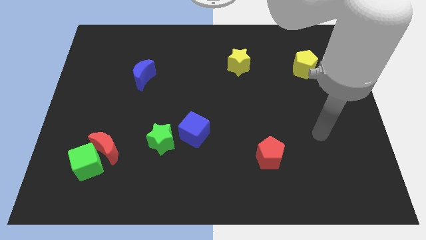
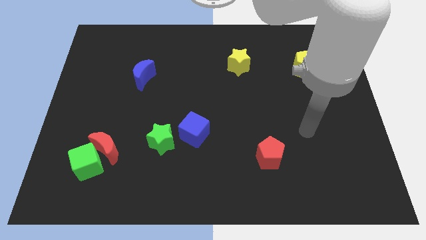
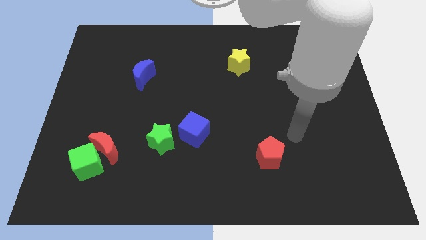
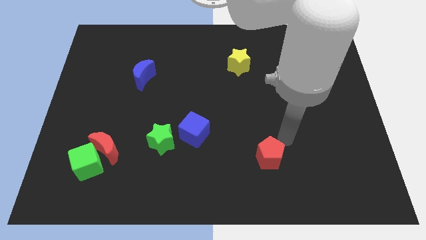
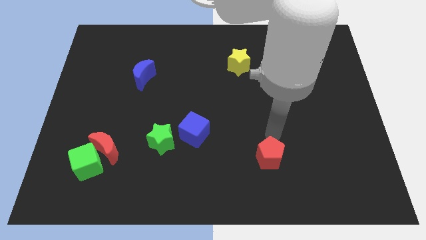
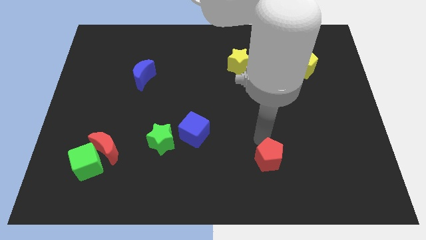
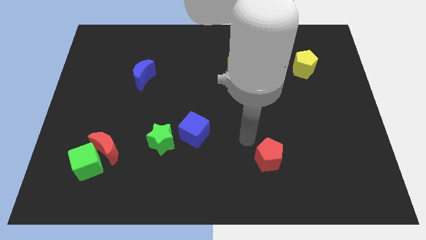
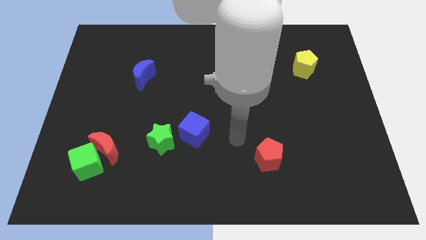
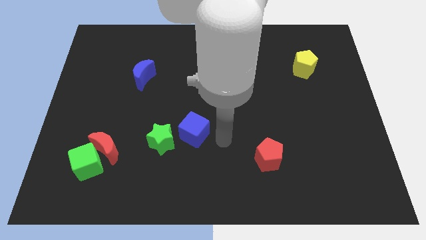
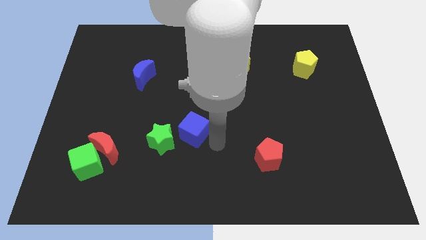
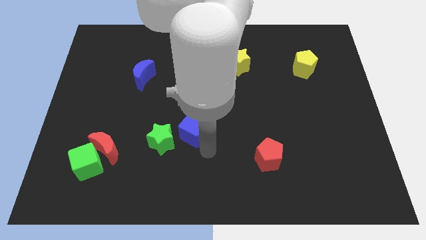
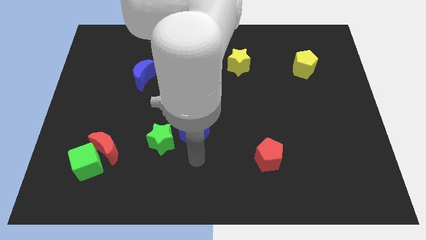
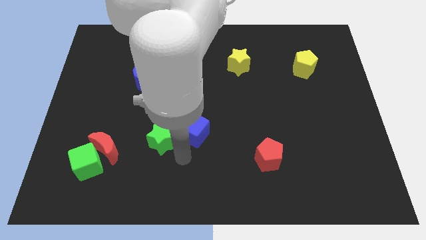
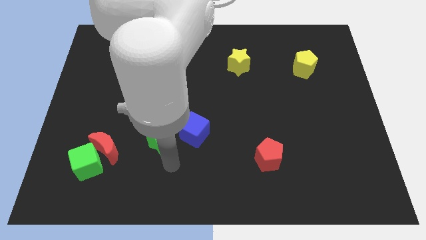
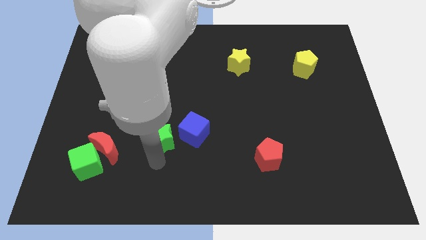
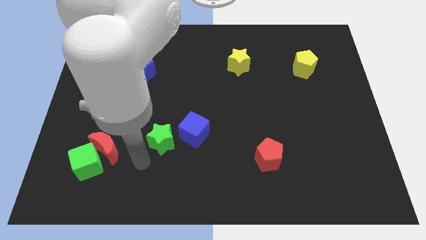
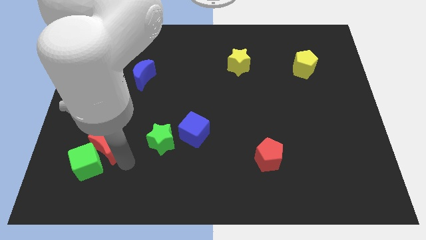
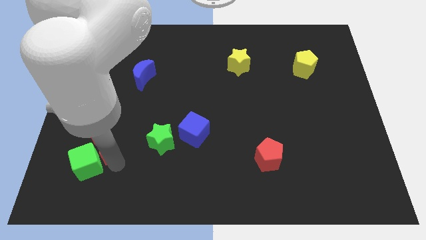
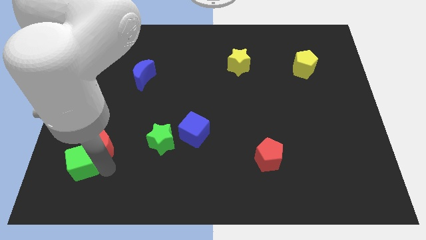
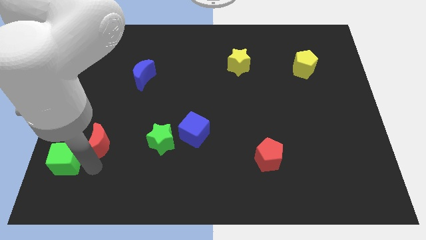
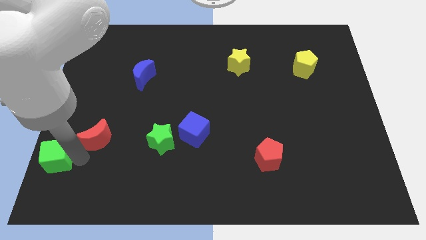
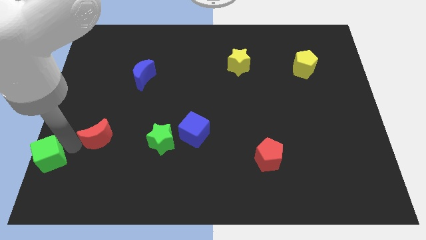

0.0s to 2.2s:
move the red moon away from the green cube

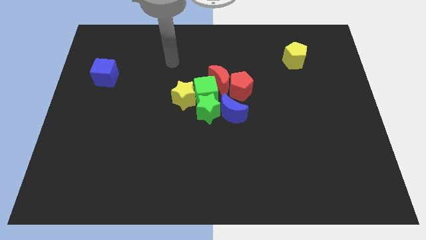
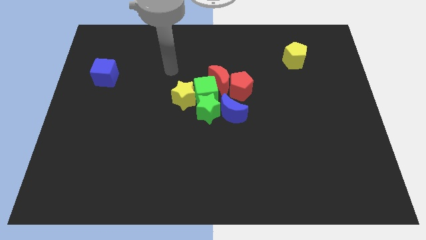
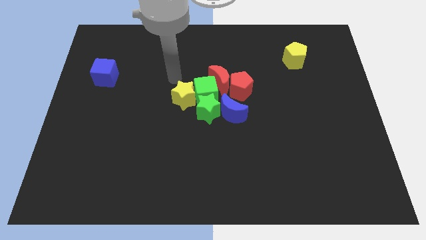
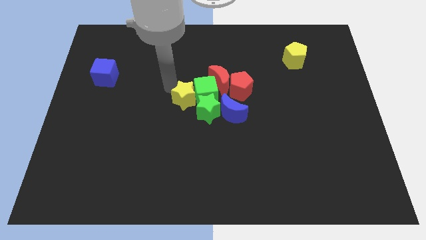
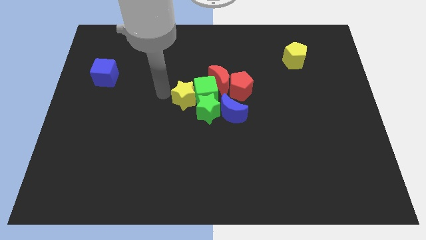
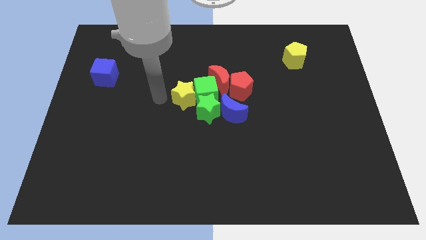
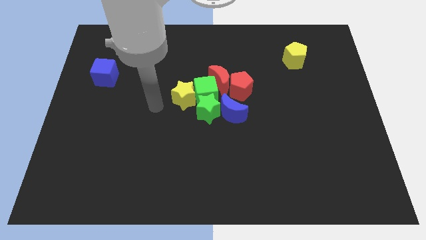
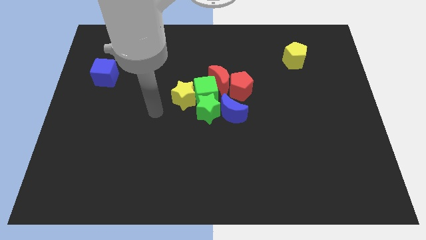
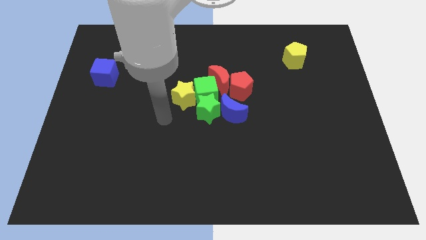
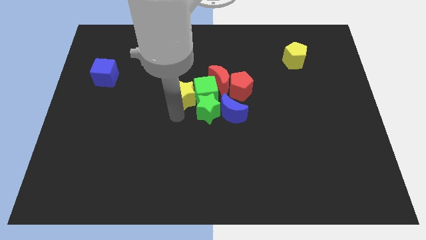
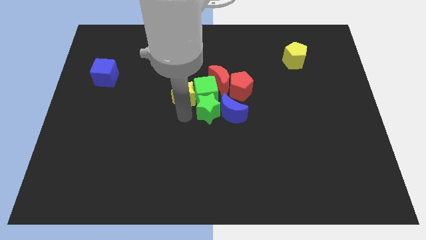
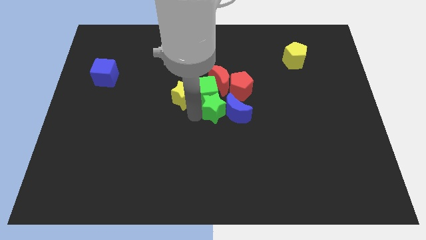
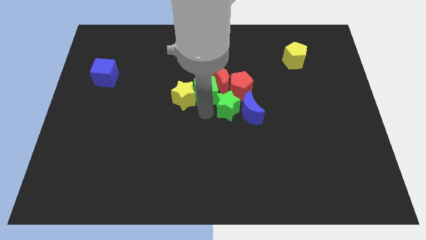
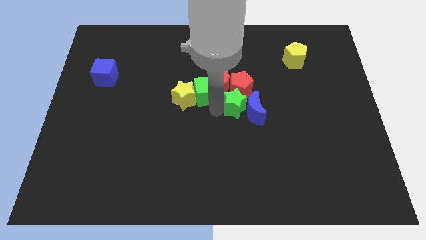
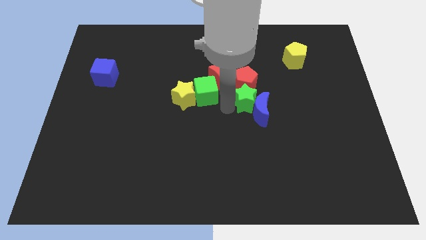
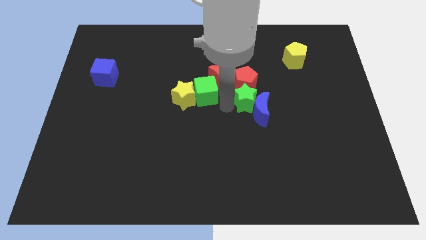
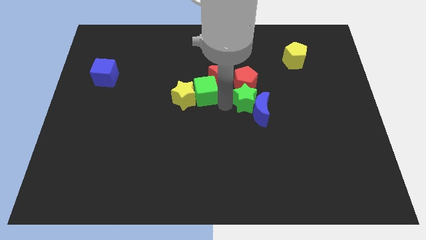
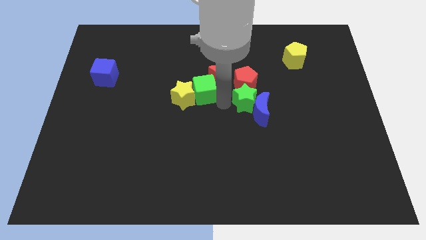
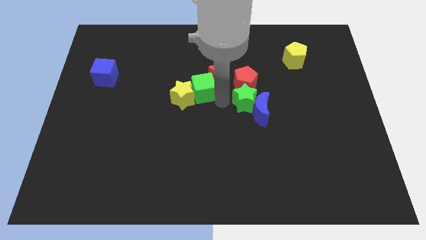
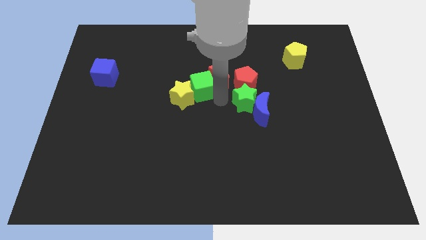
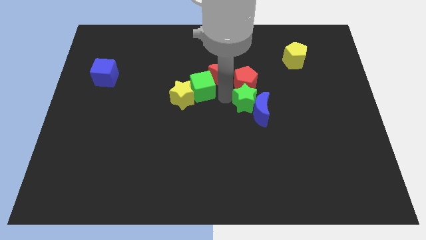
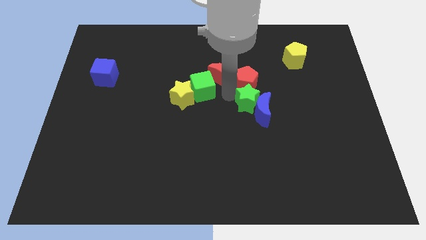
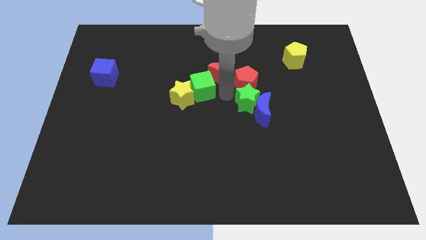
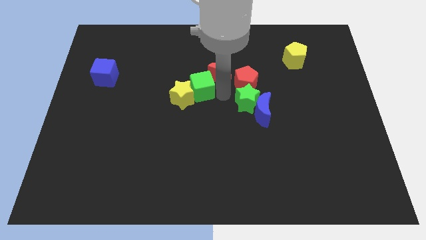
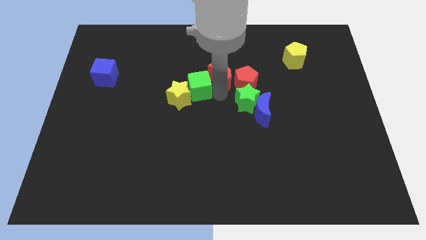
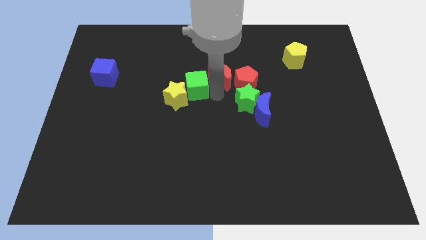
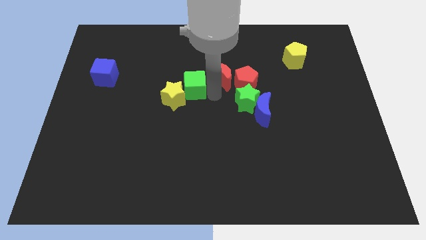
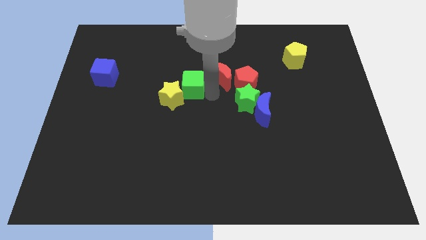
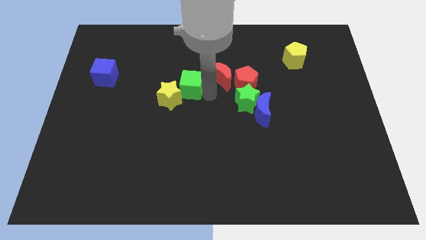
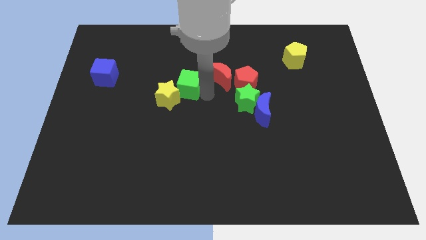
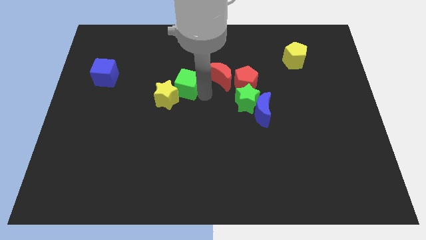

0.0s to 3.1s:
pull the green cube apart from the group

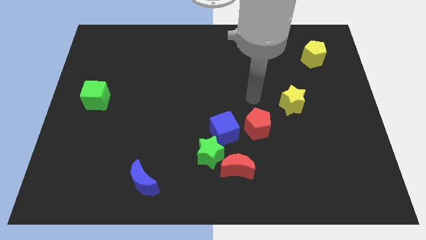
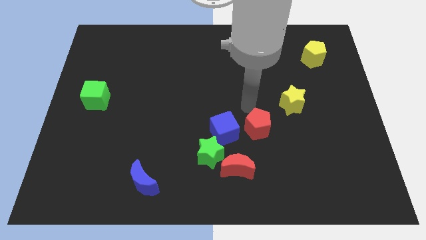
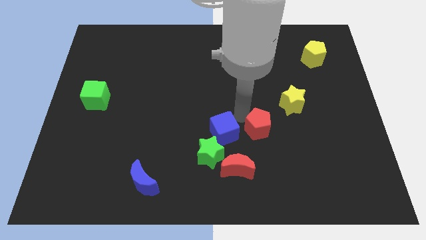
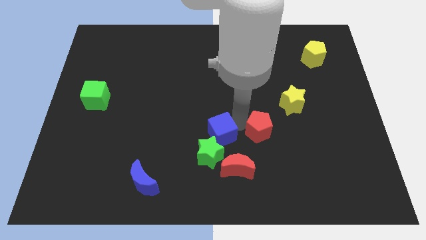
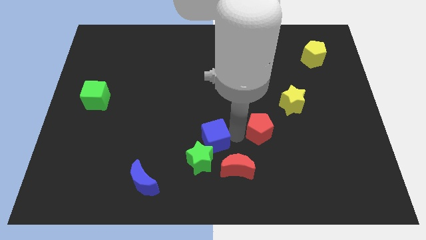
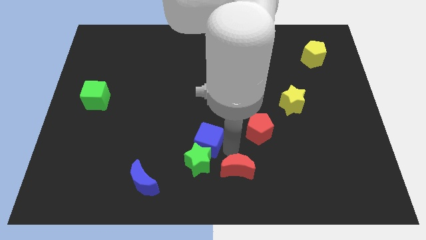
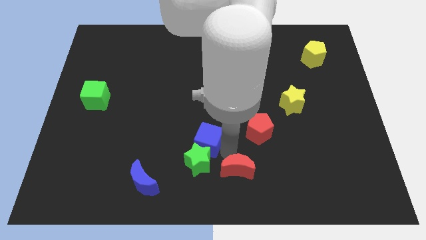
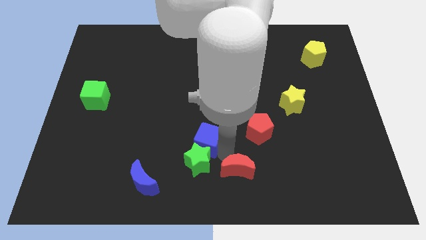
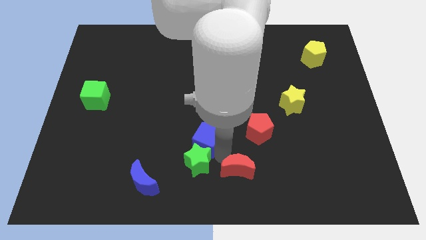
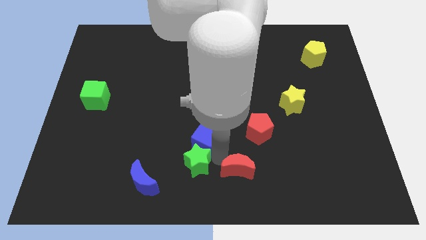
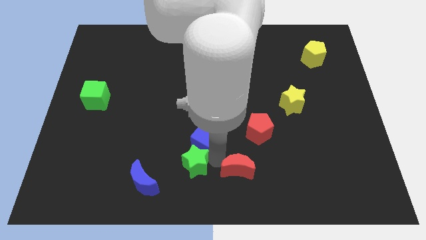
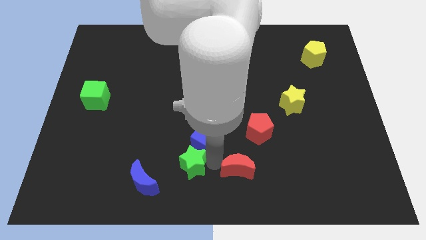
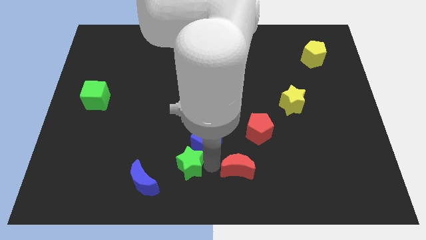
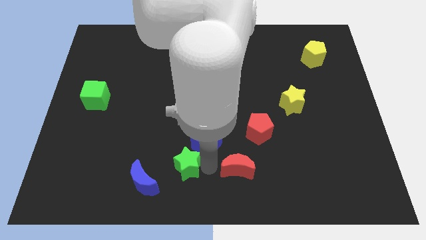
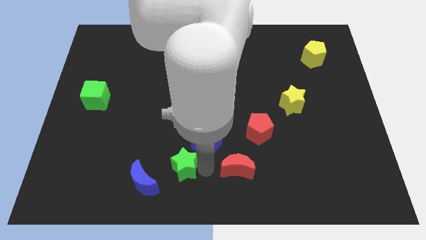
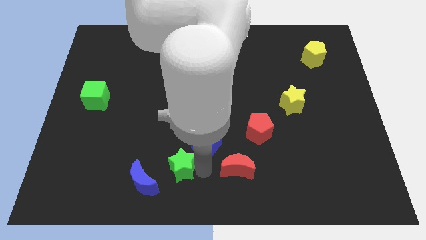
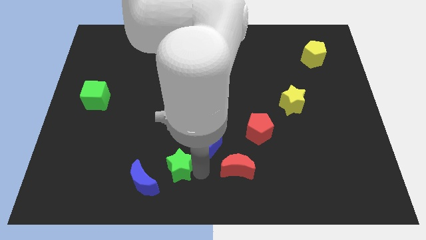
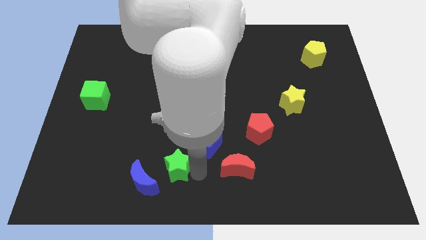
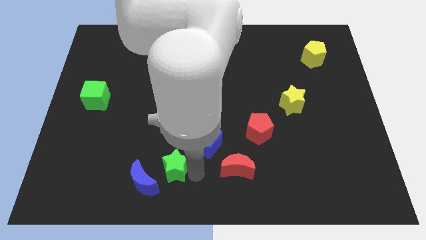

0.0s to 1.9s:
move the green star away from the red moon and blue cube

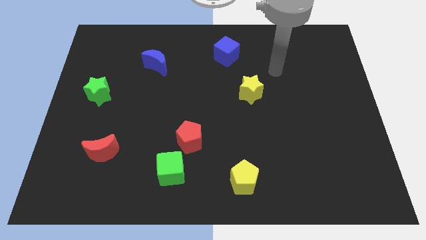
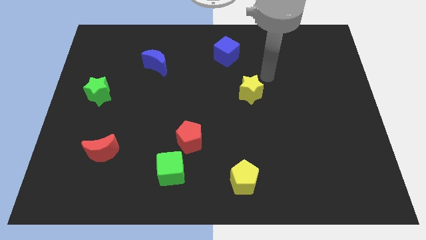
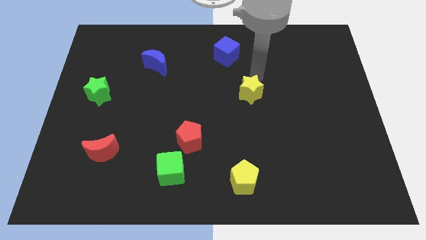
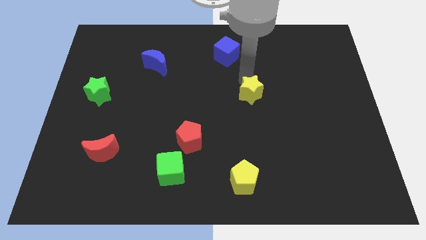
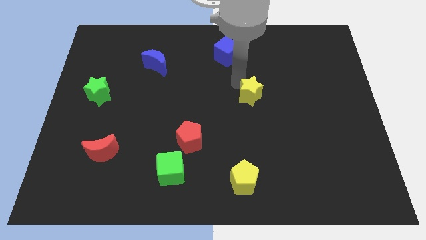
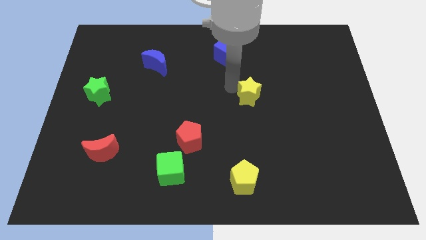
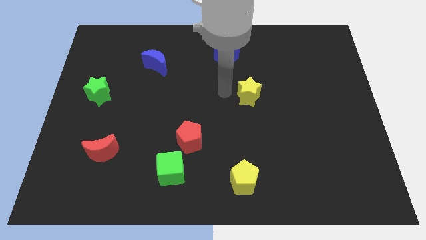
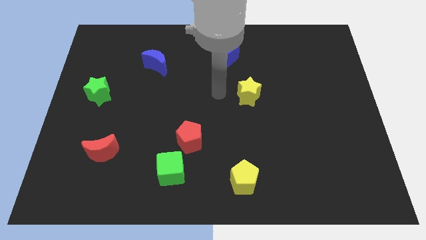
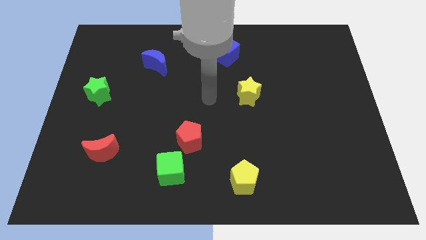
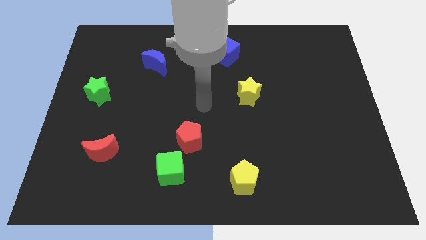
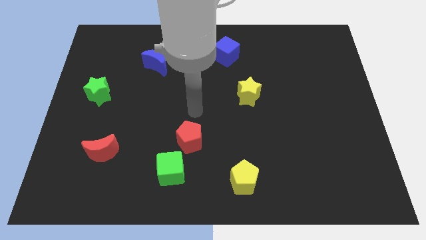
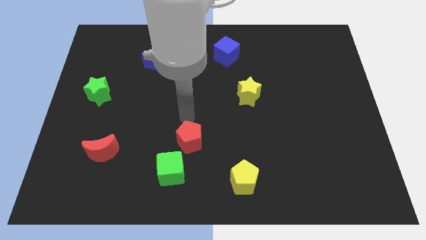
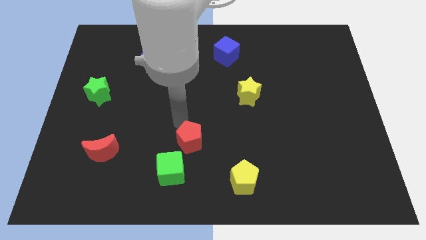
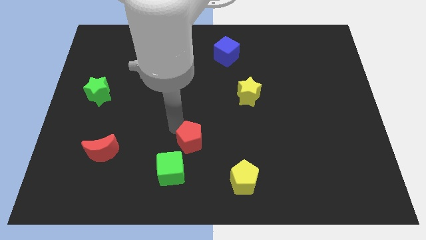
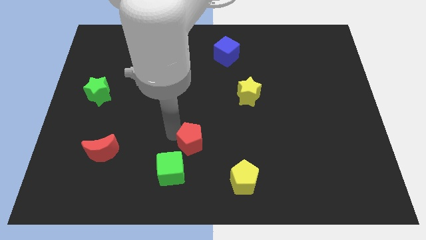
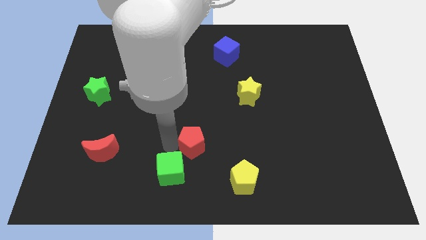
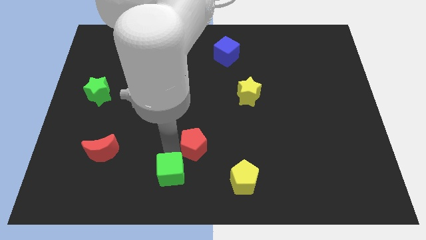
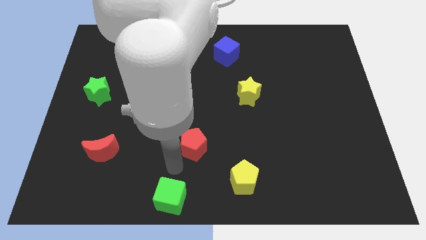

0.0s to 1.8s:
pull the red pentagon apart from the green cube

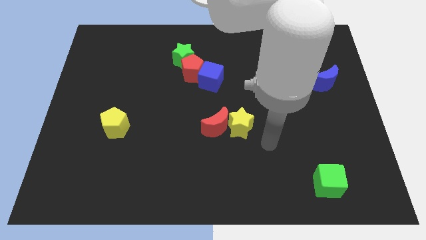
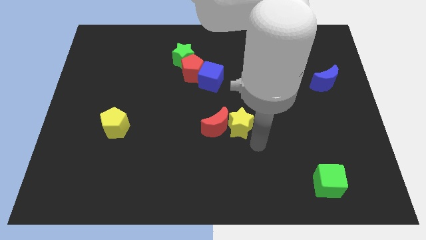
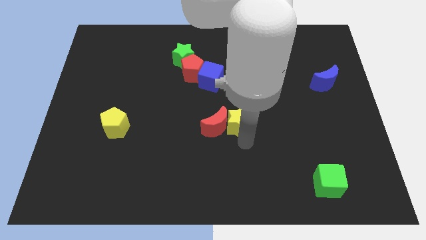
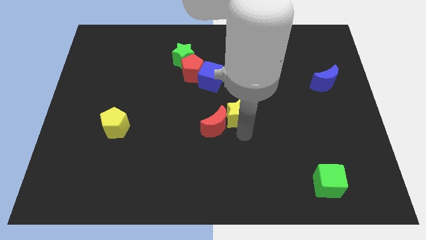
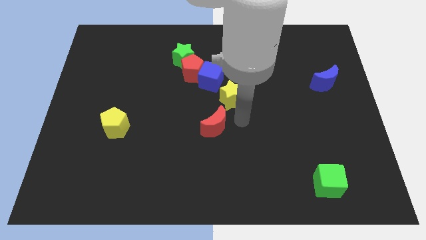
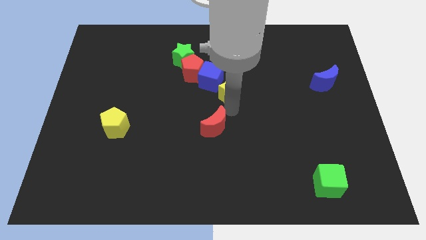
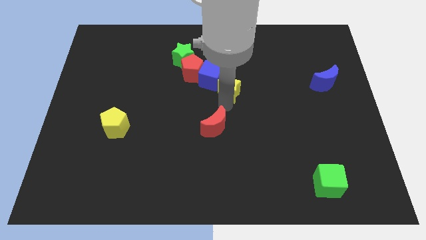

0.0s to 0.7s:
pull the red moon apart from the yellow star
